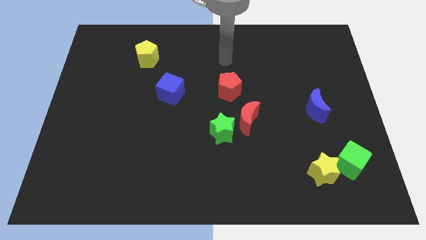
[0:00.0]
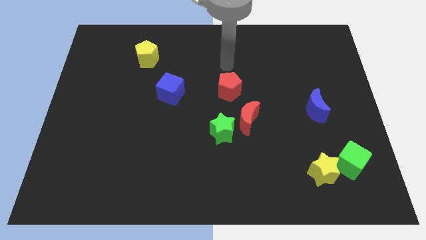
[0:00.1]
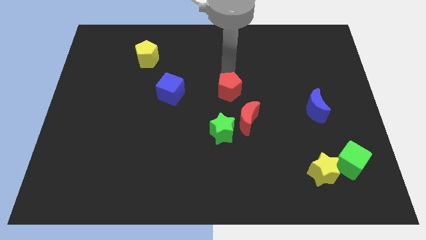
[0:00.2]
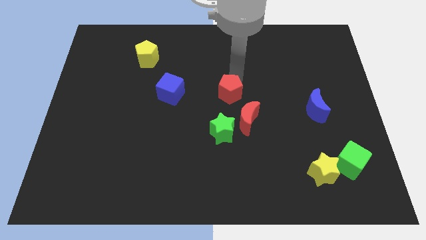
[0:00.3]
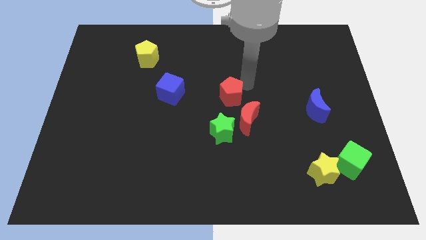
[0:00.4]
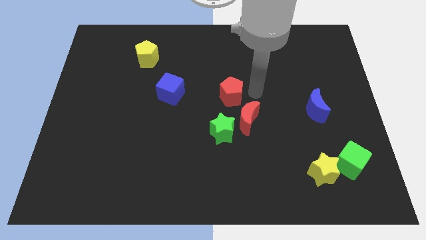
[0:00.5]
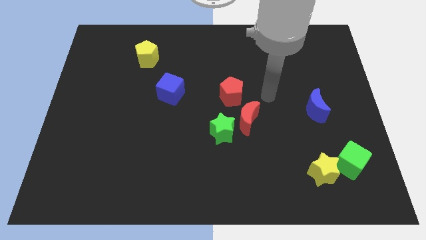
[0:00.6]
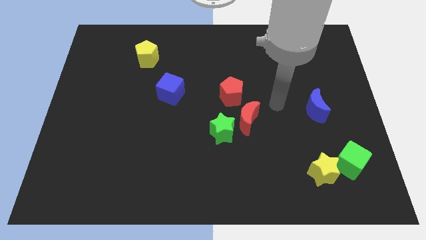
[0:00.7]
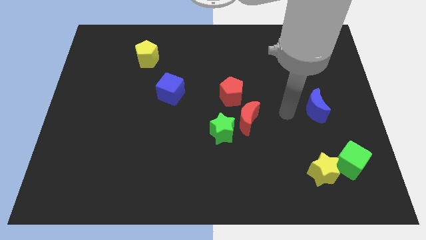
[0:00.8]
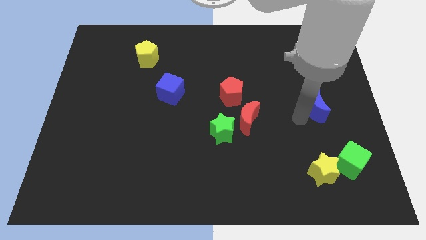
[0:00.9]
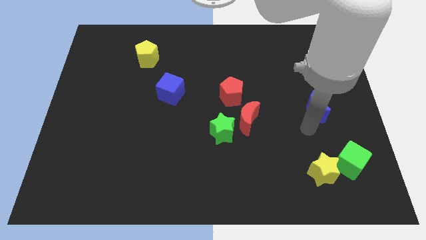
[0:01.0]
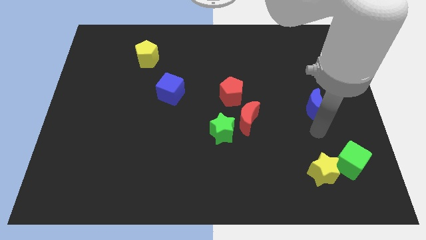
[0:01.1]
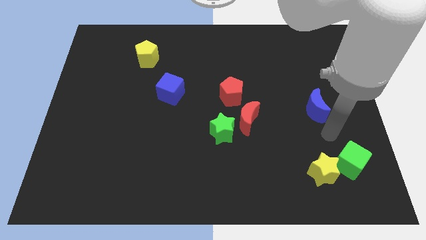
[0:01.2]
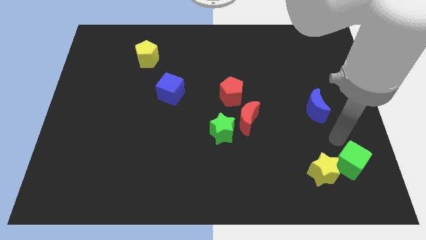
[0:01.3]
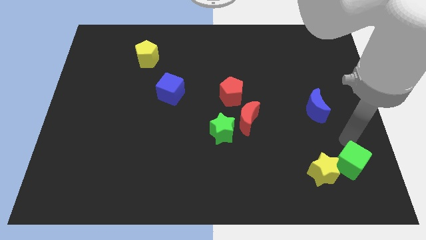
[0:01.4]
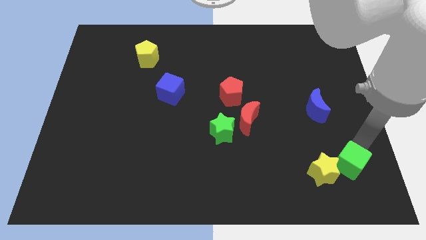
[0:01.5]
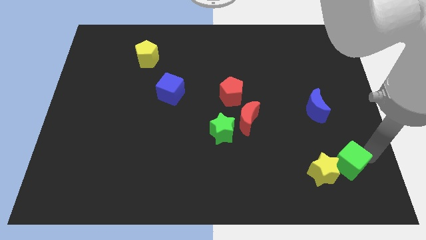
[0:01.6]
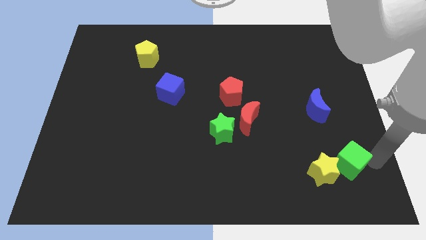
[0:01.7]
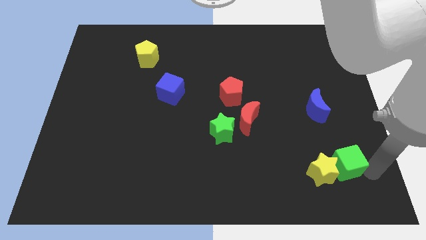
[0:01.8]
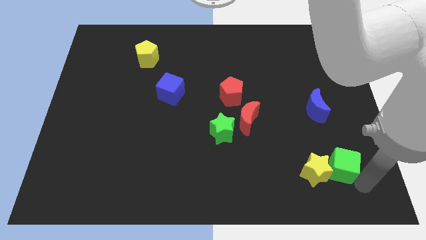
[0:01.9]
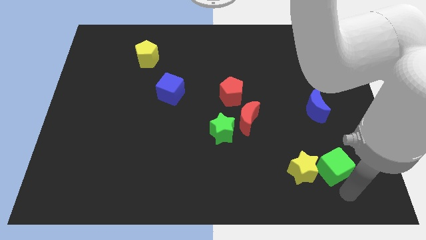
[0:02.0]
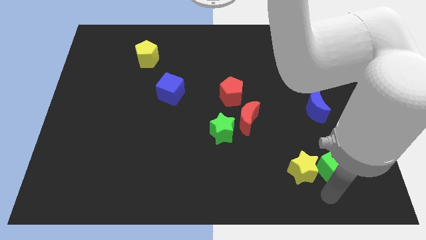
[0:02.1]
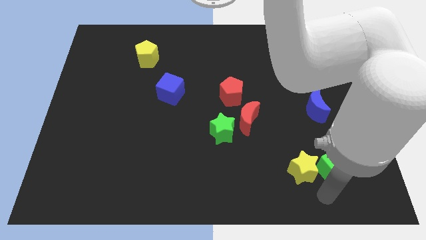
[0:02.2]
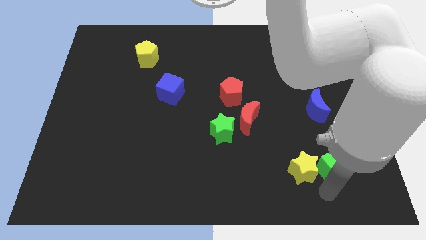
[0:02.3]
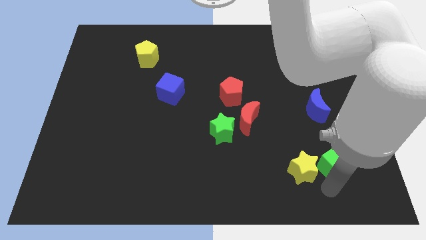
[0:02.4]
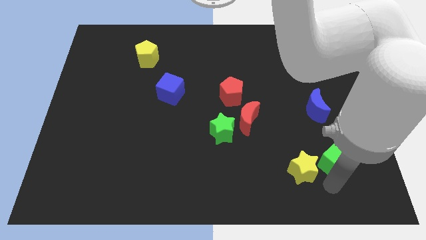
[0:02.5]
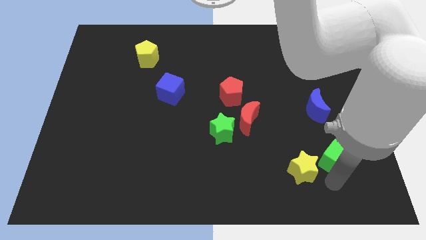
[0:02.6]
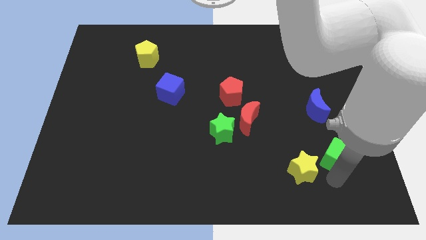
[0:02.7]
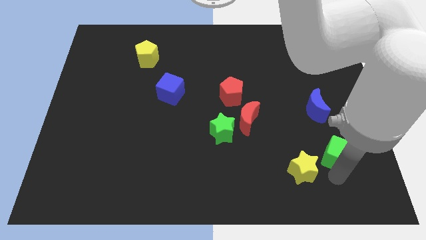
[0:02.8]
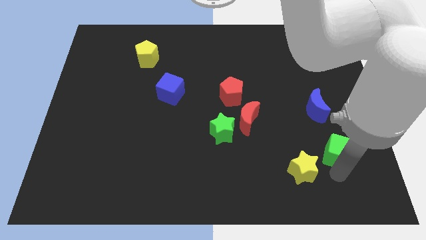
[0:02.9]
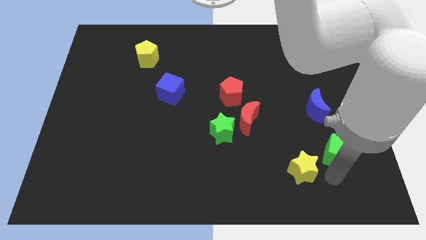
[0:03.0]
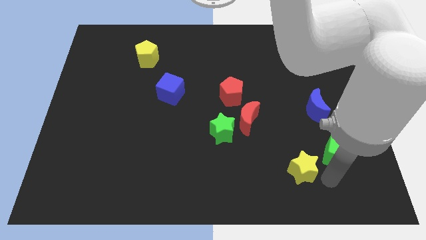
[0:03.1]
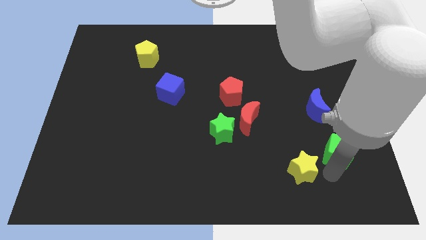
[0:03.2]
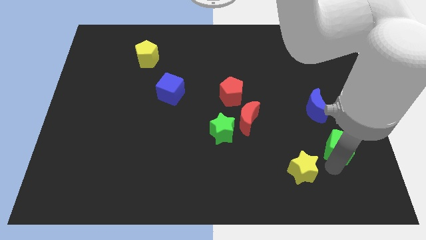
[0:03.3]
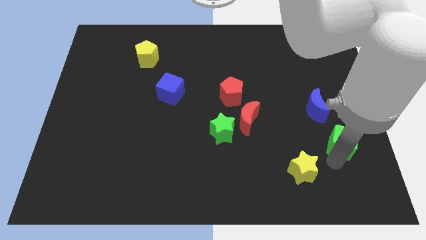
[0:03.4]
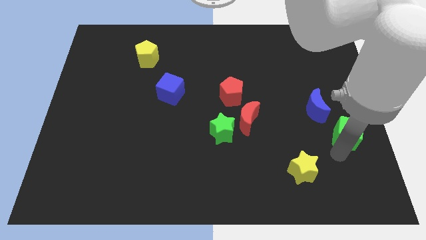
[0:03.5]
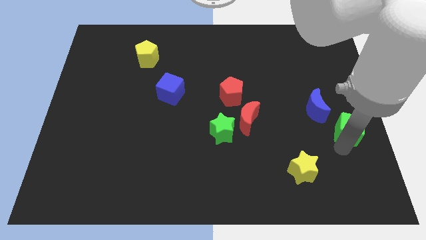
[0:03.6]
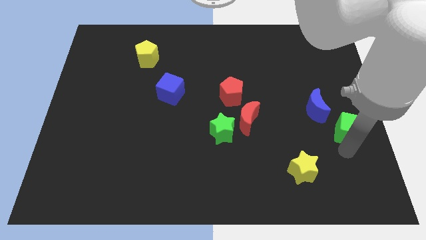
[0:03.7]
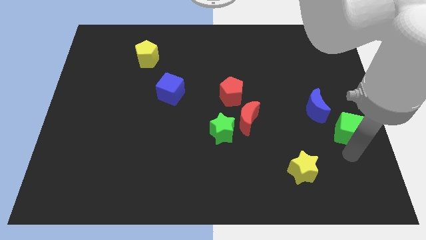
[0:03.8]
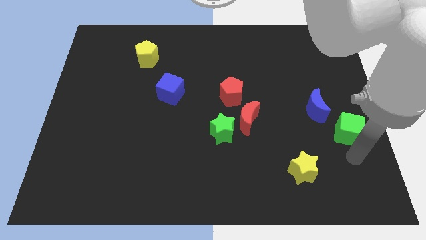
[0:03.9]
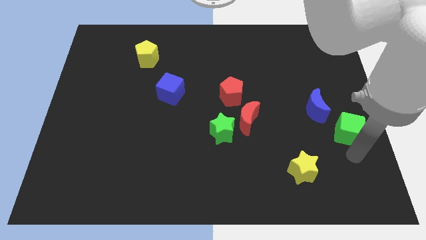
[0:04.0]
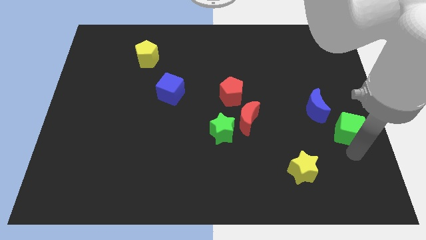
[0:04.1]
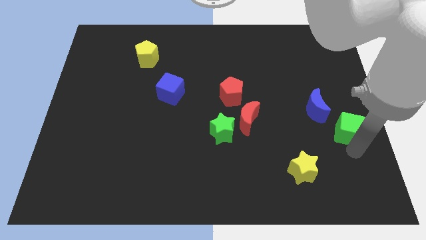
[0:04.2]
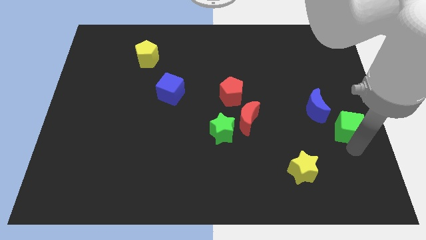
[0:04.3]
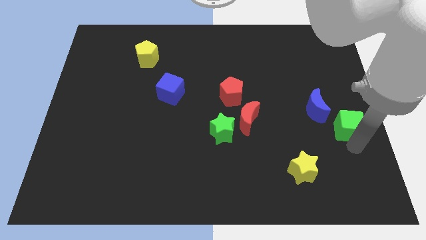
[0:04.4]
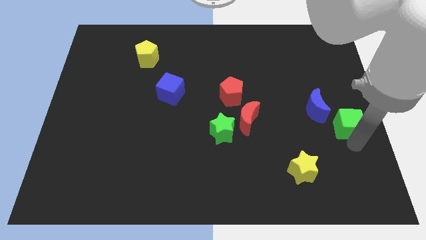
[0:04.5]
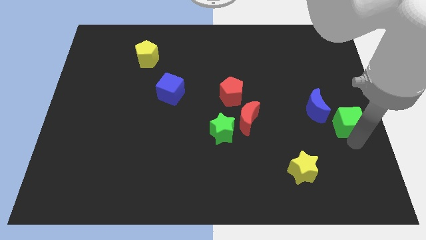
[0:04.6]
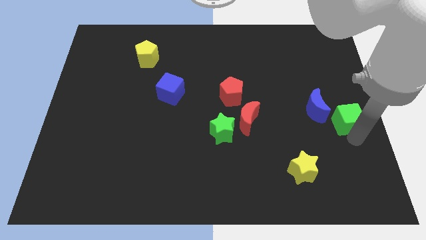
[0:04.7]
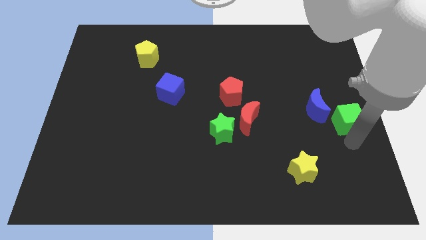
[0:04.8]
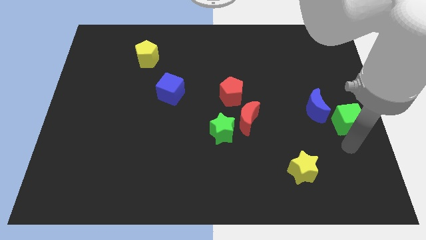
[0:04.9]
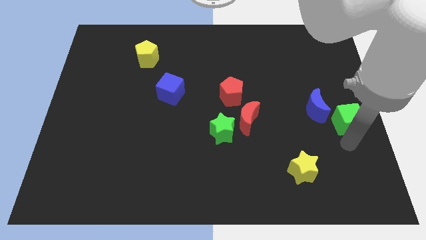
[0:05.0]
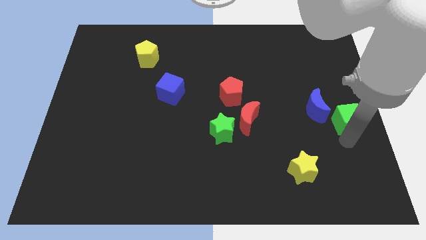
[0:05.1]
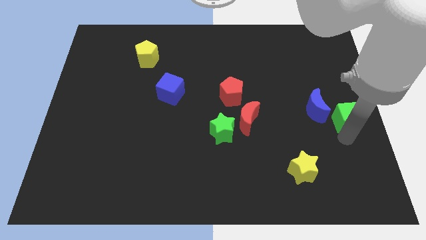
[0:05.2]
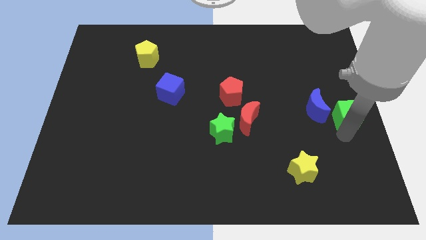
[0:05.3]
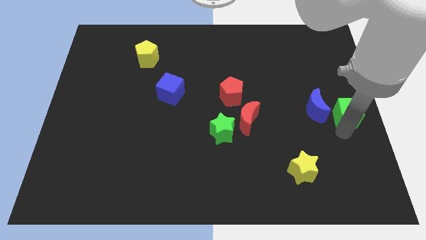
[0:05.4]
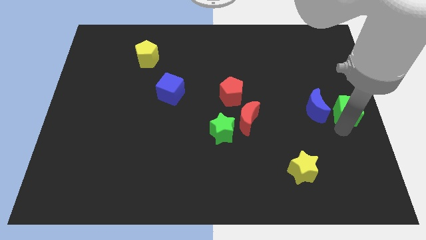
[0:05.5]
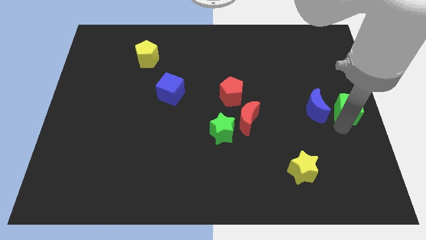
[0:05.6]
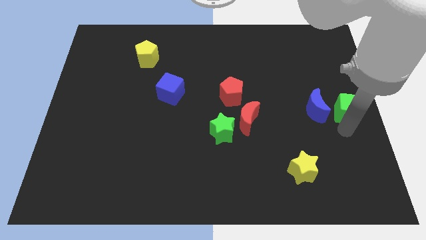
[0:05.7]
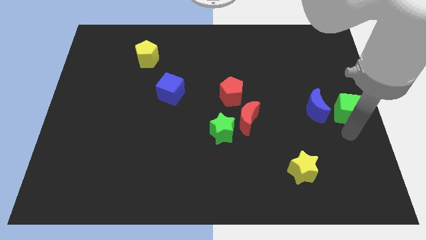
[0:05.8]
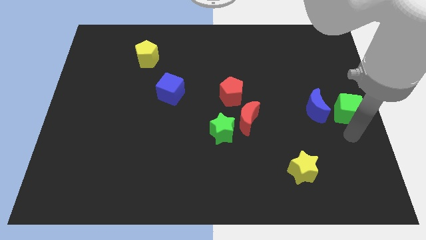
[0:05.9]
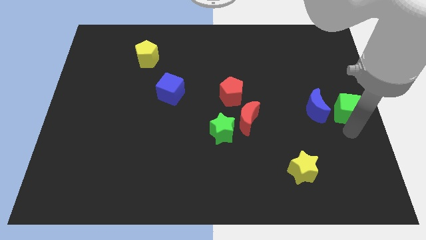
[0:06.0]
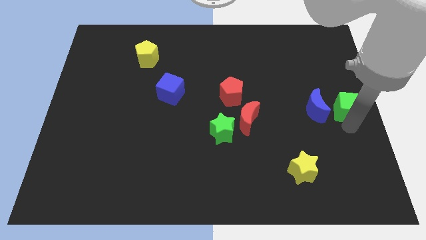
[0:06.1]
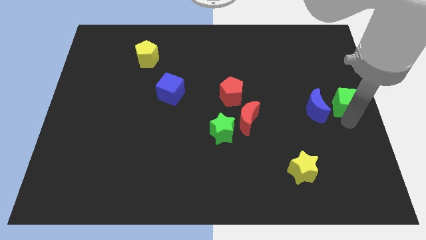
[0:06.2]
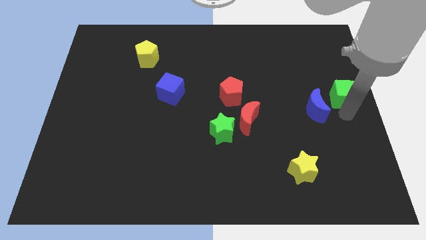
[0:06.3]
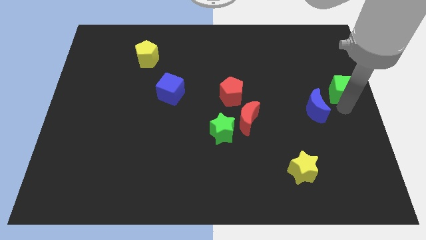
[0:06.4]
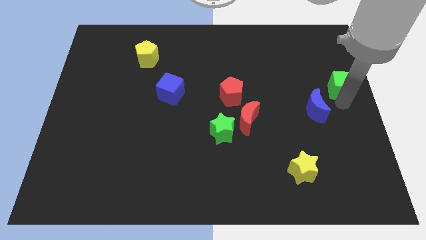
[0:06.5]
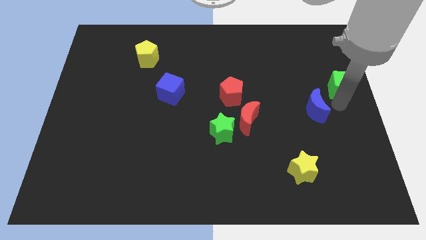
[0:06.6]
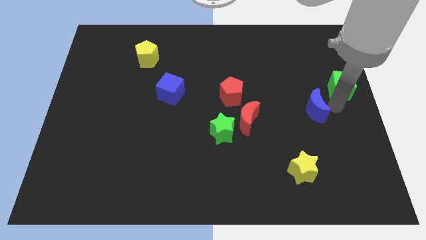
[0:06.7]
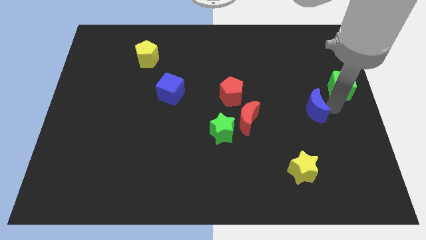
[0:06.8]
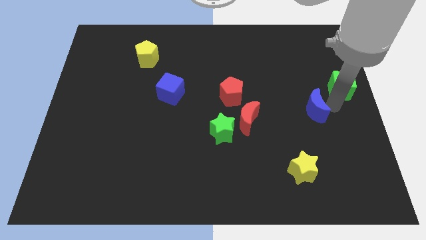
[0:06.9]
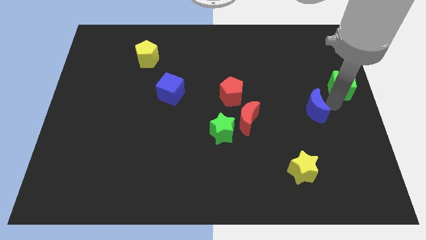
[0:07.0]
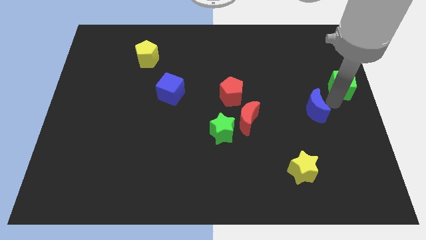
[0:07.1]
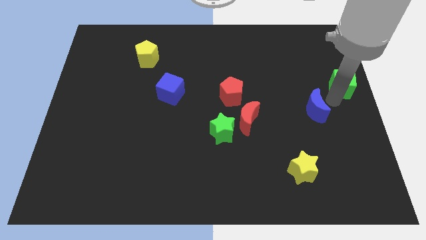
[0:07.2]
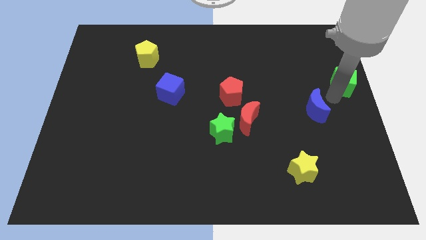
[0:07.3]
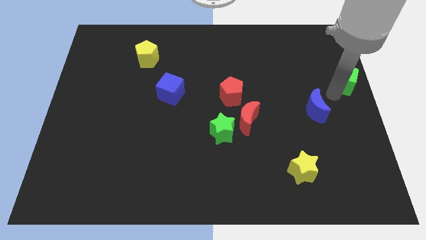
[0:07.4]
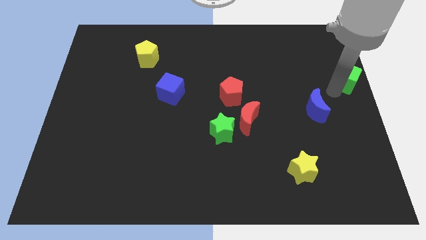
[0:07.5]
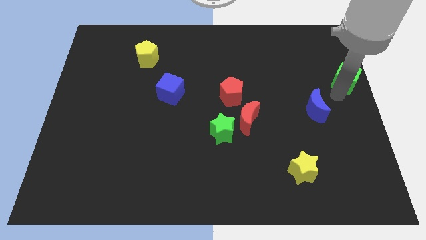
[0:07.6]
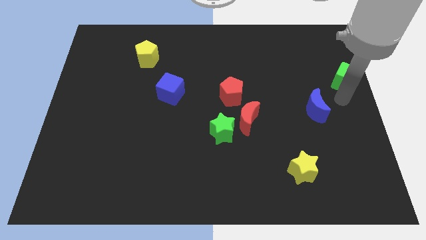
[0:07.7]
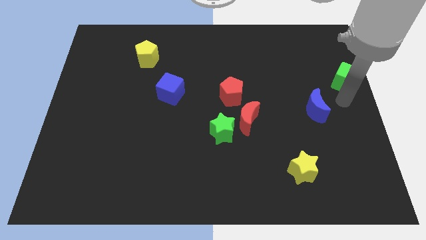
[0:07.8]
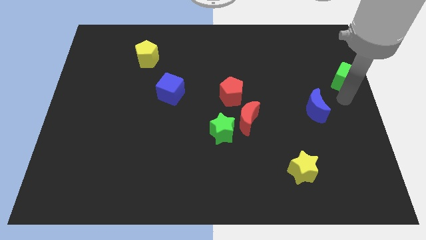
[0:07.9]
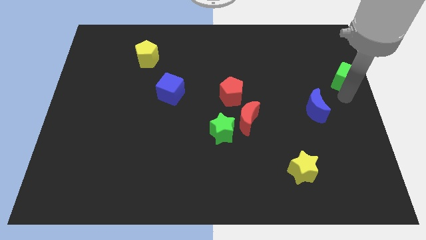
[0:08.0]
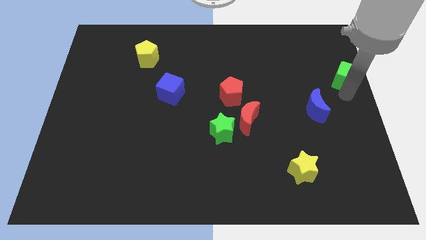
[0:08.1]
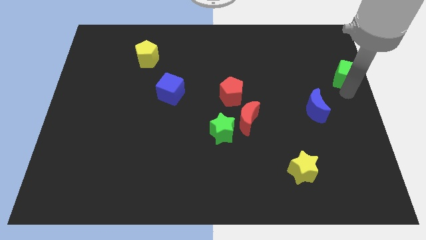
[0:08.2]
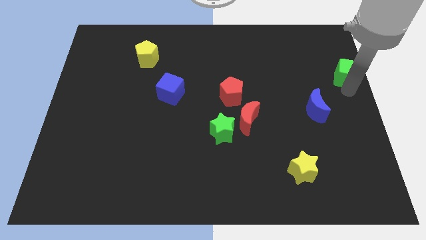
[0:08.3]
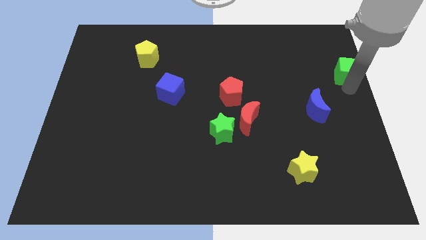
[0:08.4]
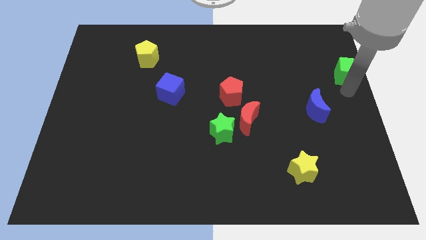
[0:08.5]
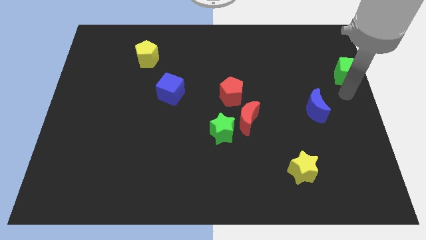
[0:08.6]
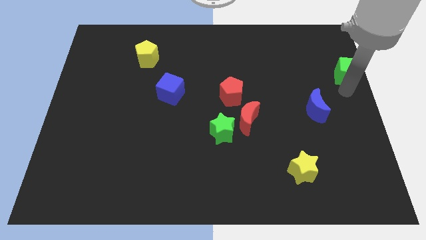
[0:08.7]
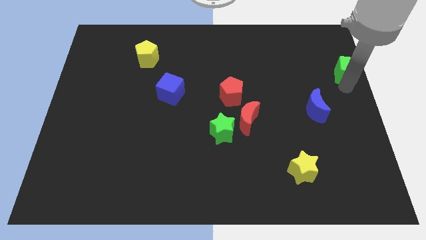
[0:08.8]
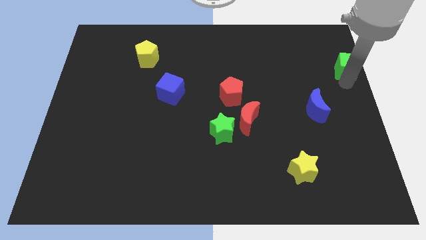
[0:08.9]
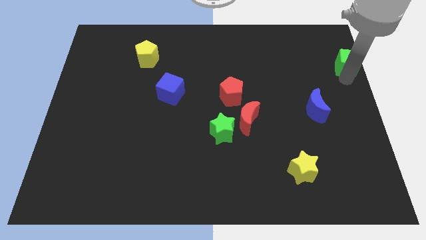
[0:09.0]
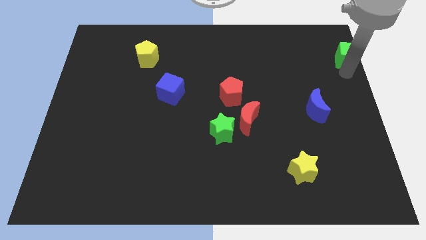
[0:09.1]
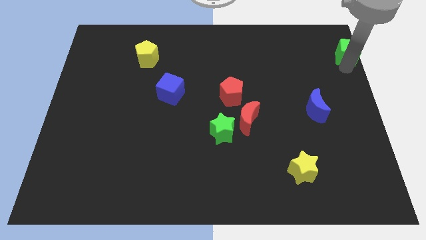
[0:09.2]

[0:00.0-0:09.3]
slide the green cube to the upper right corner
